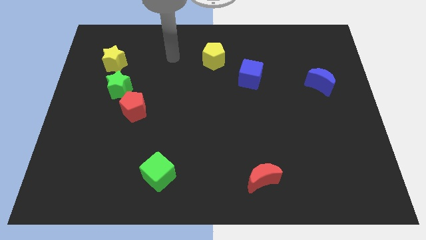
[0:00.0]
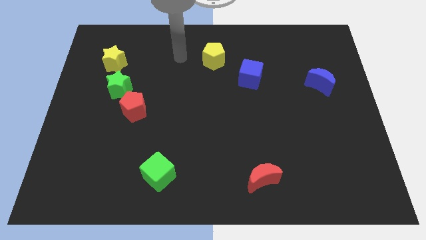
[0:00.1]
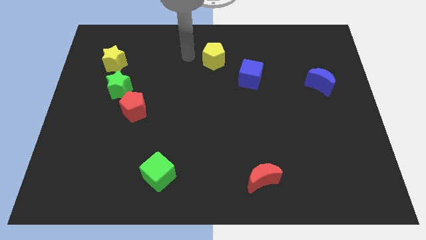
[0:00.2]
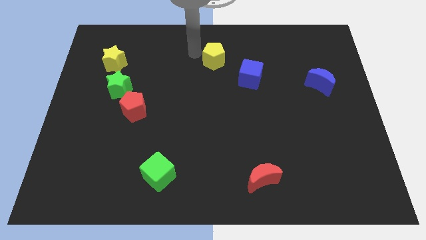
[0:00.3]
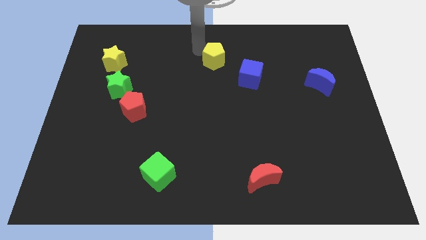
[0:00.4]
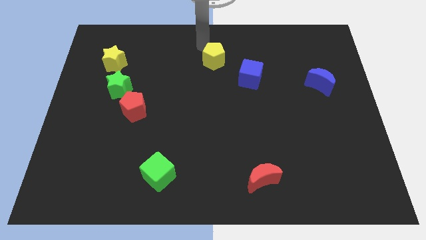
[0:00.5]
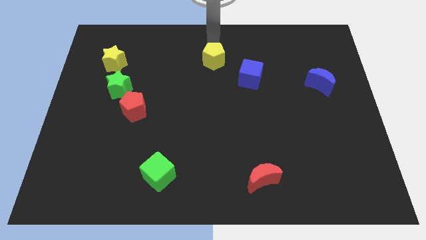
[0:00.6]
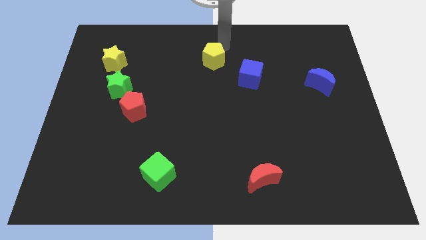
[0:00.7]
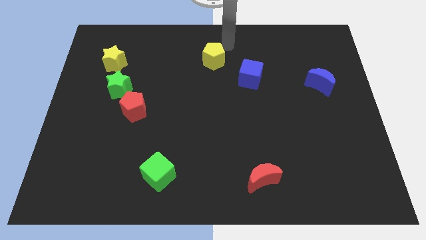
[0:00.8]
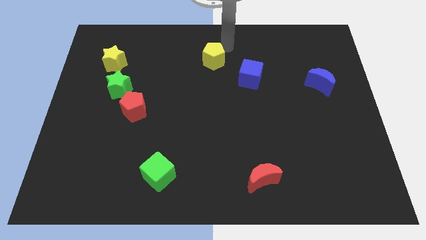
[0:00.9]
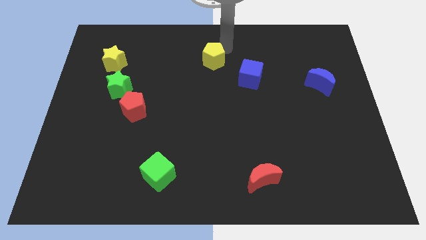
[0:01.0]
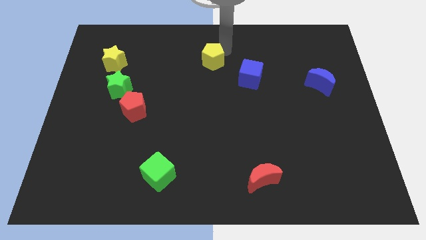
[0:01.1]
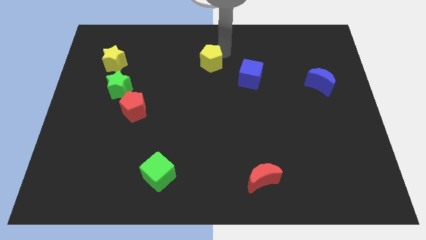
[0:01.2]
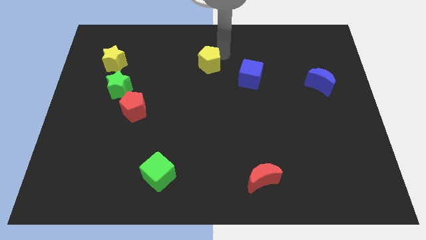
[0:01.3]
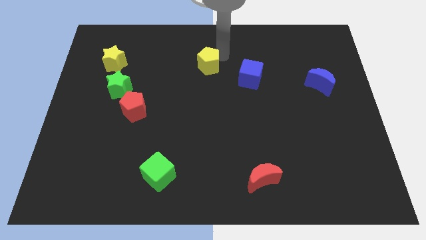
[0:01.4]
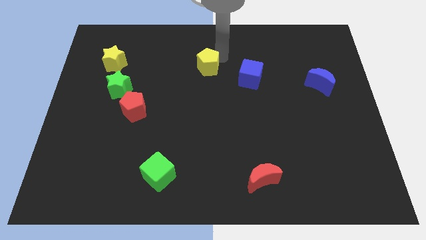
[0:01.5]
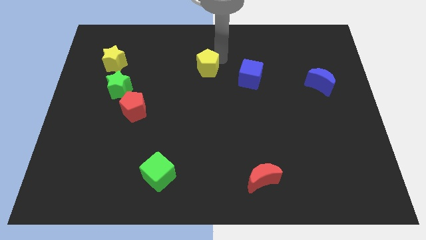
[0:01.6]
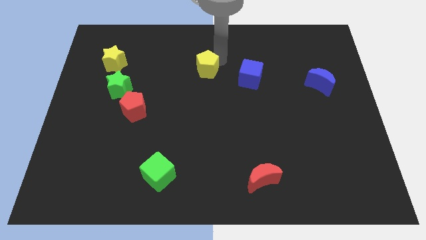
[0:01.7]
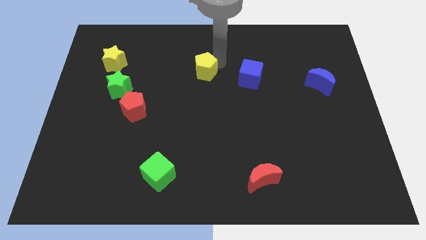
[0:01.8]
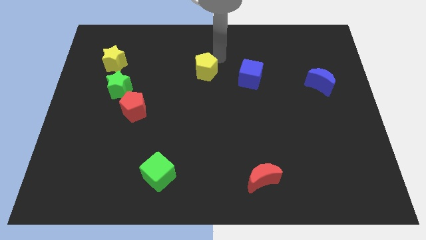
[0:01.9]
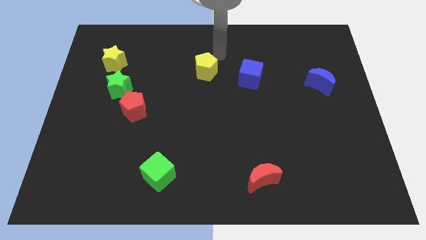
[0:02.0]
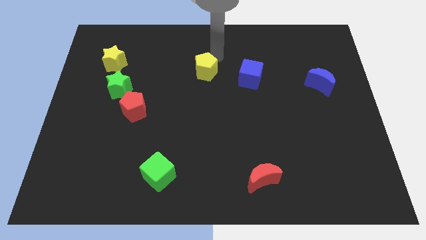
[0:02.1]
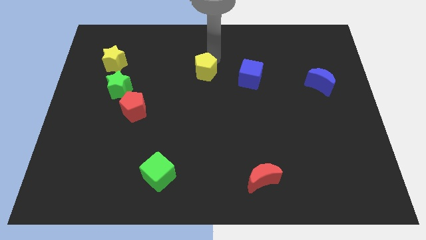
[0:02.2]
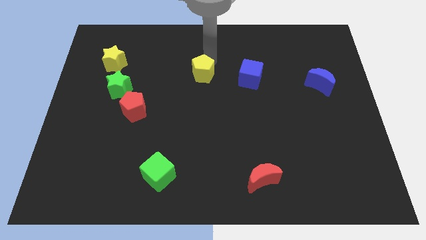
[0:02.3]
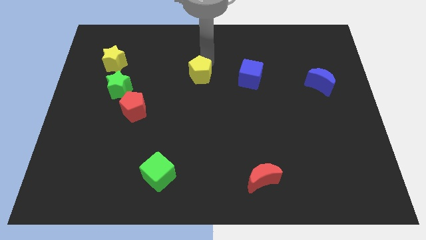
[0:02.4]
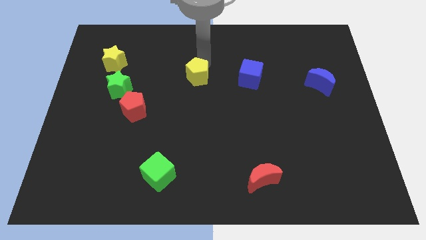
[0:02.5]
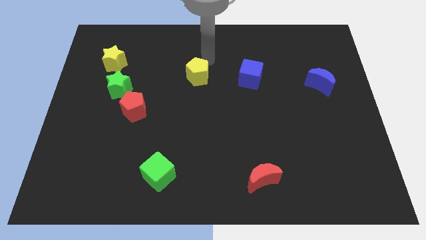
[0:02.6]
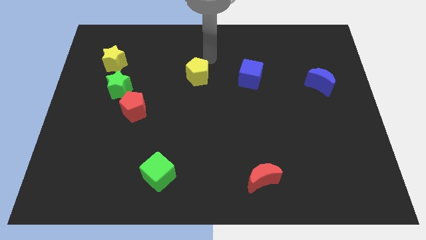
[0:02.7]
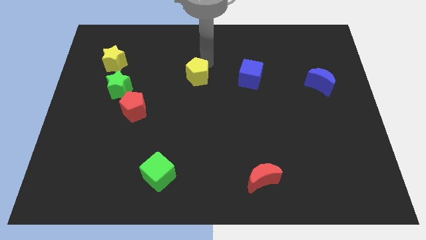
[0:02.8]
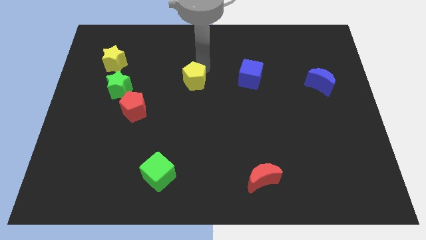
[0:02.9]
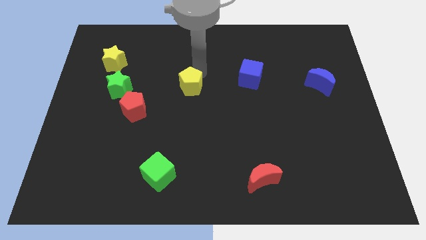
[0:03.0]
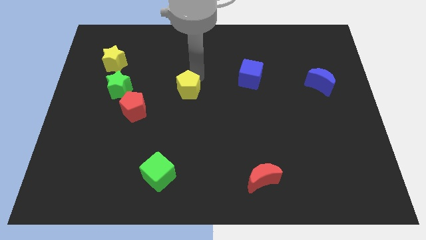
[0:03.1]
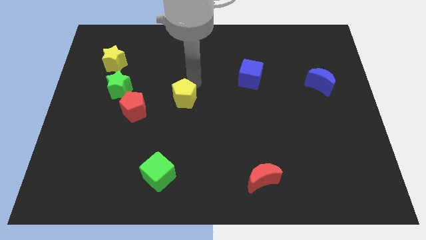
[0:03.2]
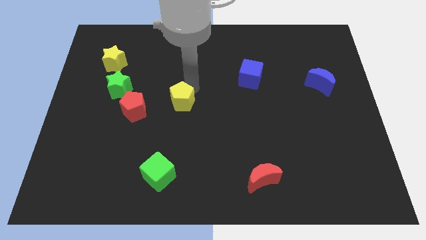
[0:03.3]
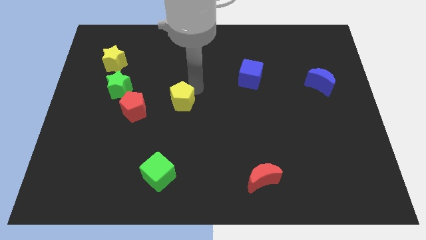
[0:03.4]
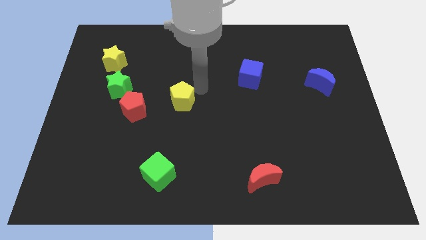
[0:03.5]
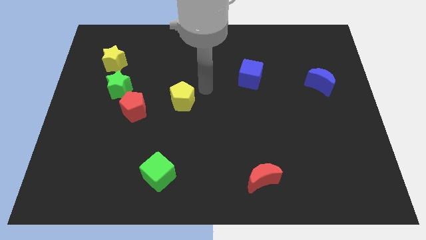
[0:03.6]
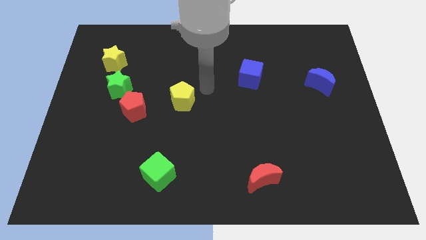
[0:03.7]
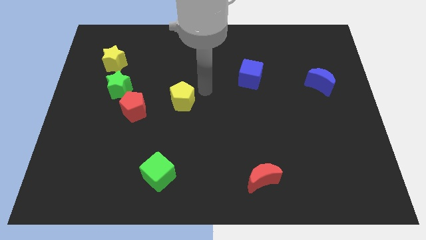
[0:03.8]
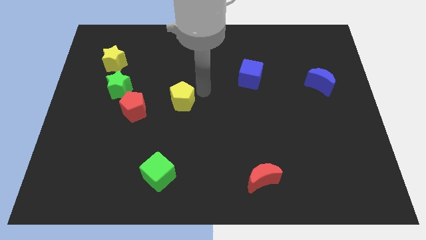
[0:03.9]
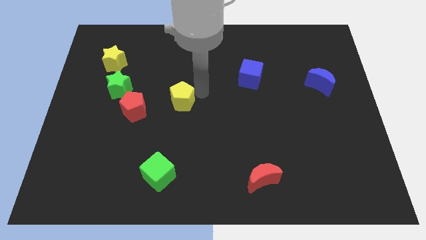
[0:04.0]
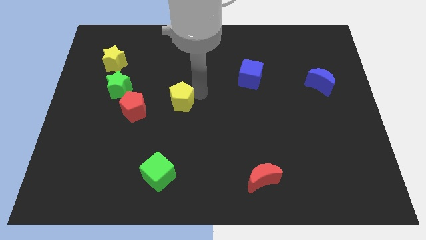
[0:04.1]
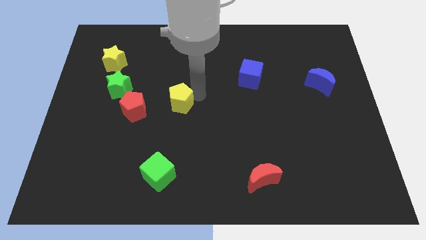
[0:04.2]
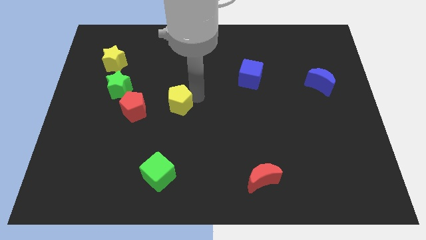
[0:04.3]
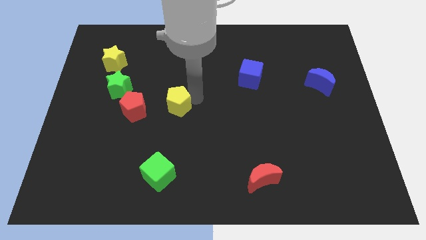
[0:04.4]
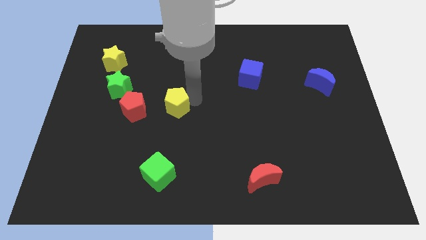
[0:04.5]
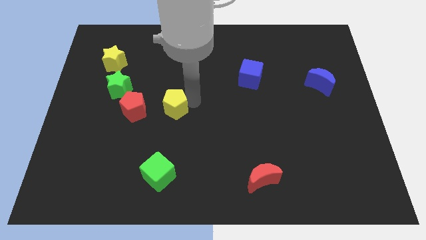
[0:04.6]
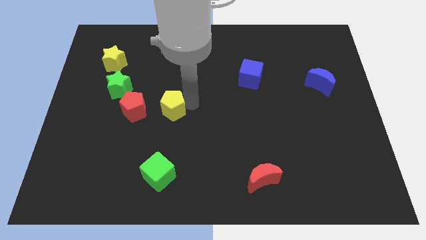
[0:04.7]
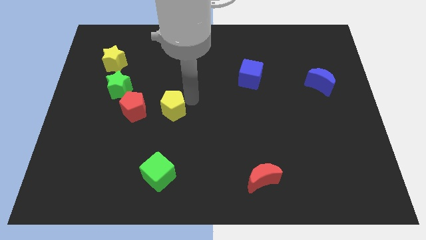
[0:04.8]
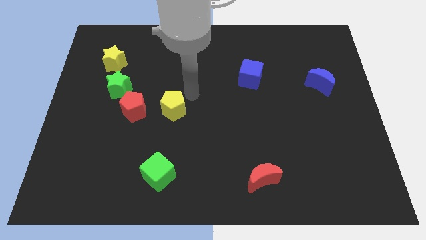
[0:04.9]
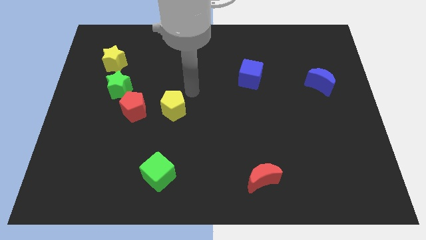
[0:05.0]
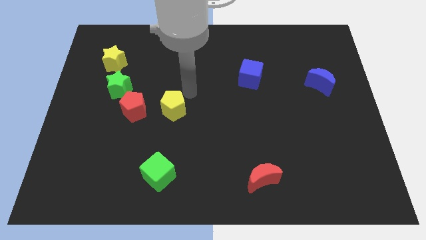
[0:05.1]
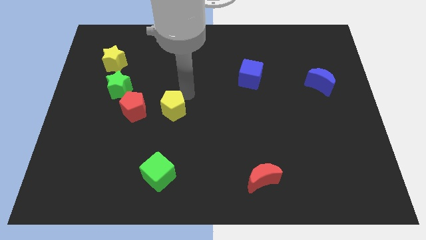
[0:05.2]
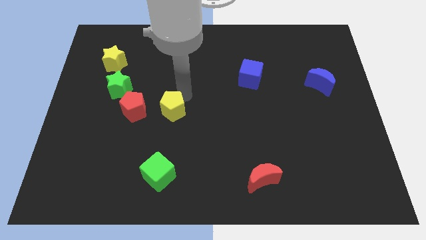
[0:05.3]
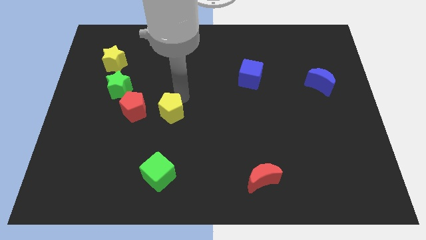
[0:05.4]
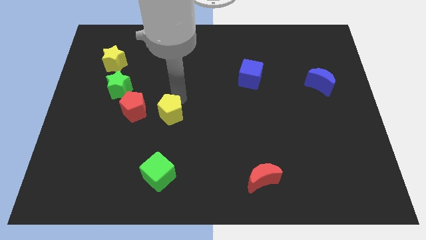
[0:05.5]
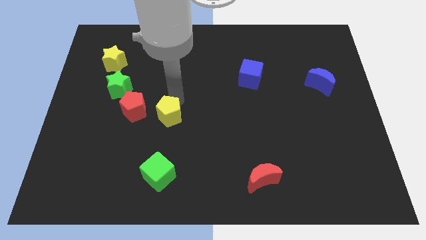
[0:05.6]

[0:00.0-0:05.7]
move the yellow pentagon diagonally down and to the right of the red pentagon

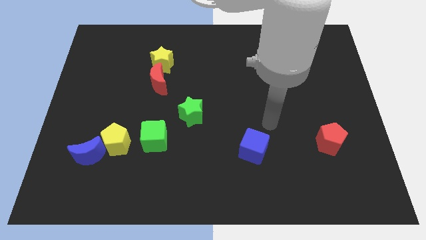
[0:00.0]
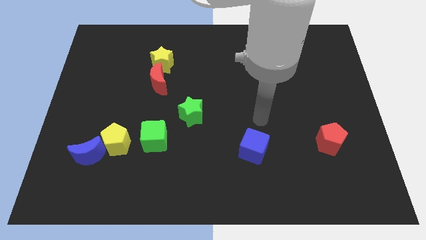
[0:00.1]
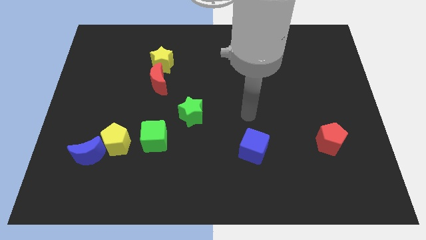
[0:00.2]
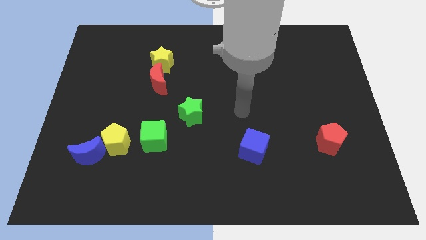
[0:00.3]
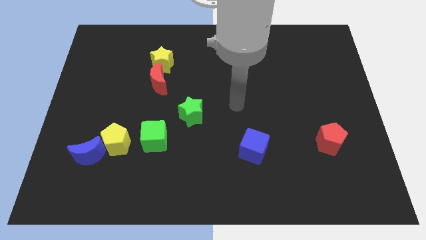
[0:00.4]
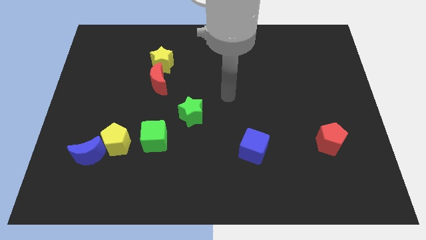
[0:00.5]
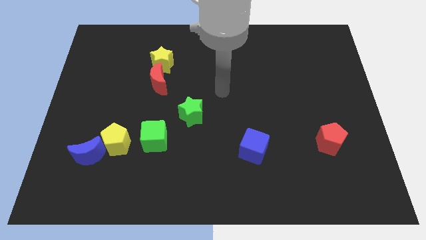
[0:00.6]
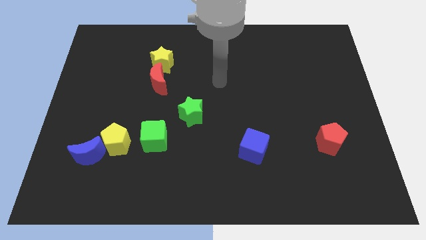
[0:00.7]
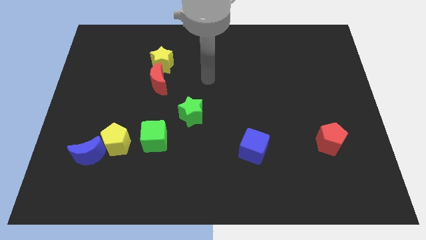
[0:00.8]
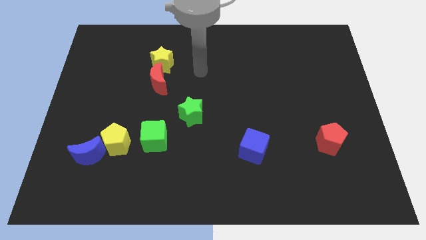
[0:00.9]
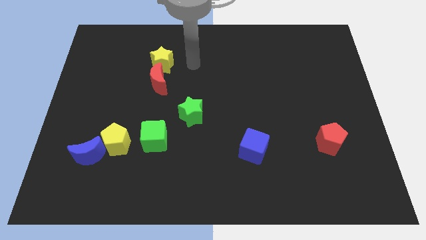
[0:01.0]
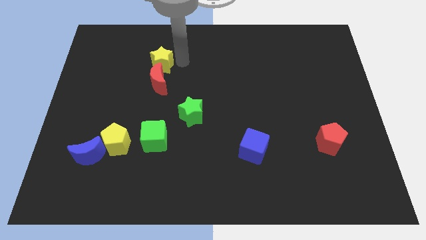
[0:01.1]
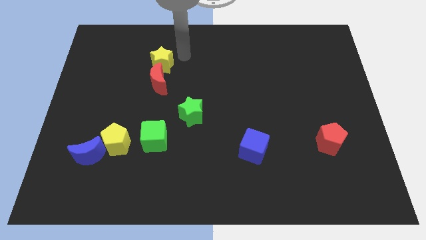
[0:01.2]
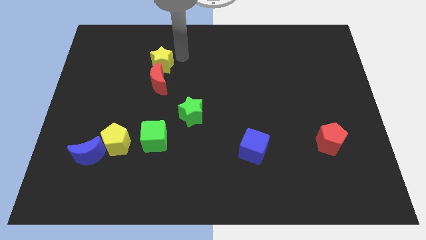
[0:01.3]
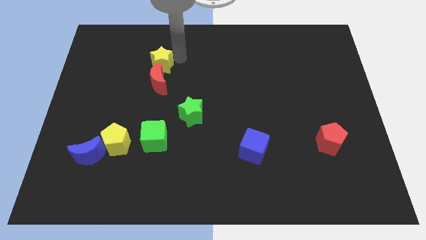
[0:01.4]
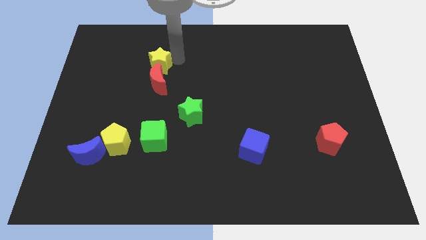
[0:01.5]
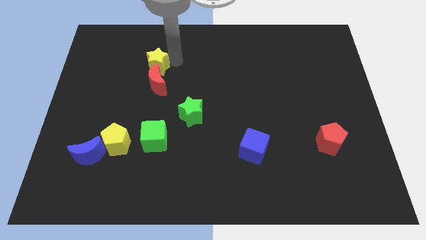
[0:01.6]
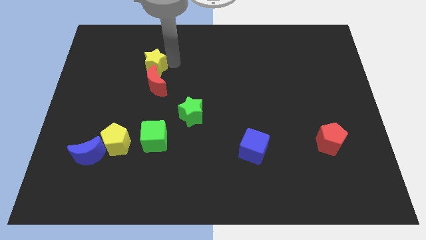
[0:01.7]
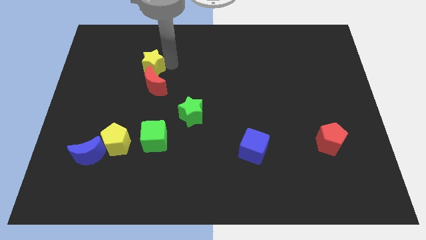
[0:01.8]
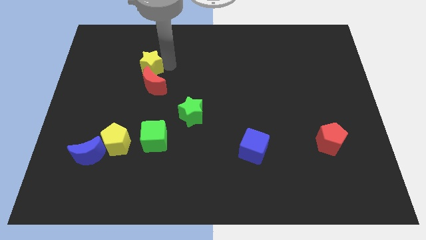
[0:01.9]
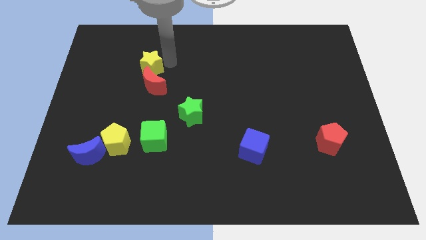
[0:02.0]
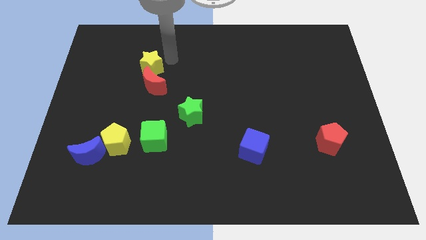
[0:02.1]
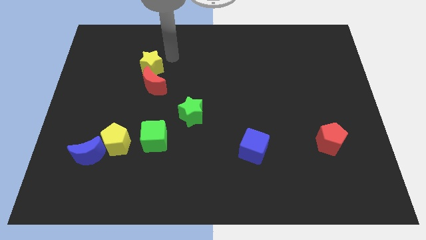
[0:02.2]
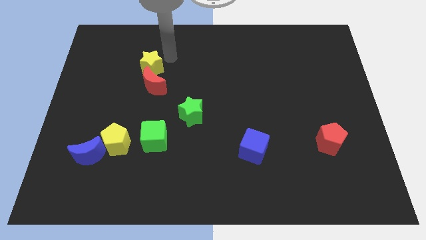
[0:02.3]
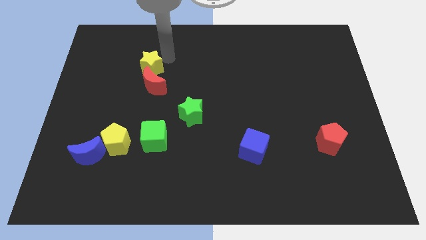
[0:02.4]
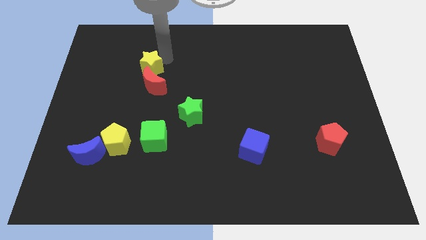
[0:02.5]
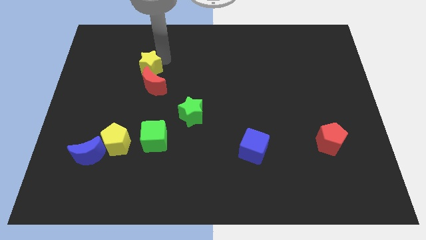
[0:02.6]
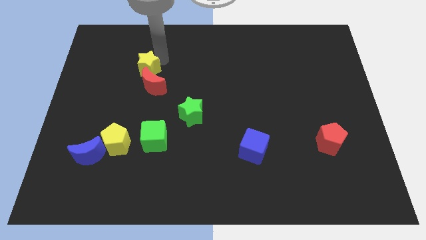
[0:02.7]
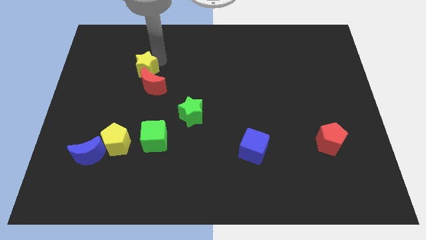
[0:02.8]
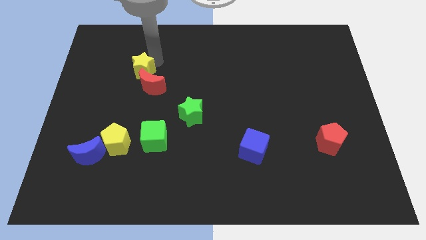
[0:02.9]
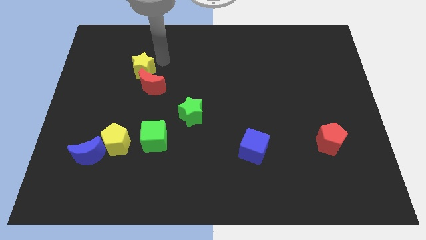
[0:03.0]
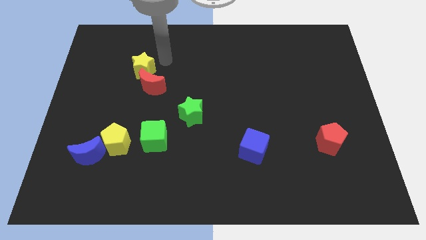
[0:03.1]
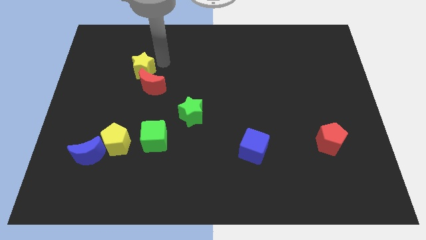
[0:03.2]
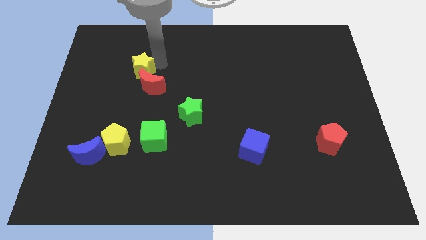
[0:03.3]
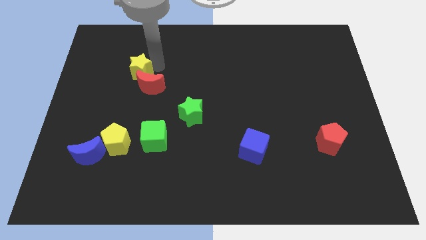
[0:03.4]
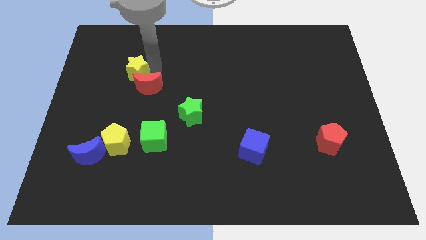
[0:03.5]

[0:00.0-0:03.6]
push the yellow star to the left of the red moon
